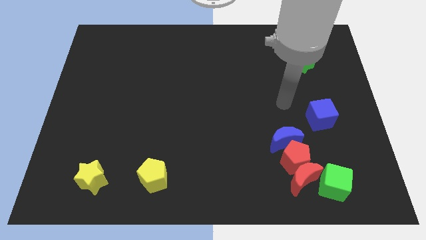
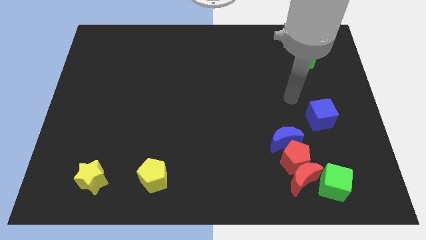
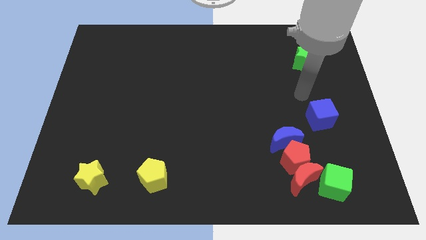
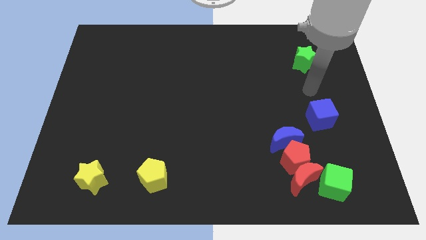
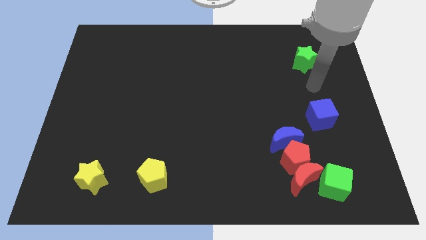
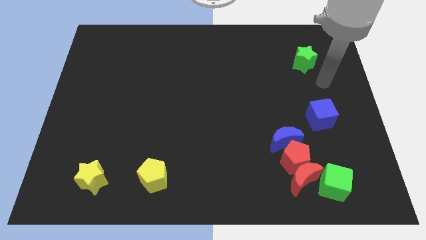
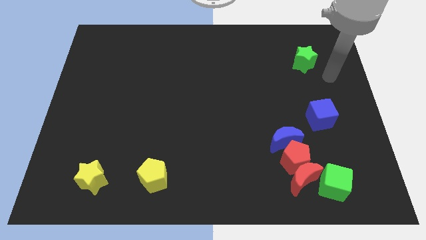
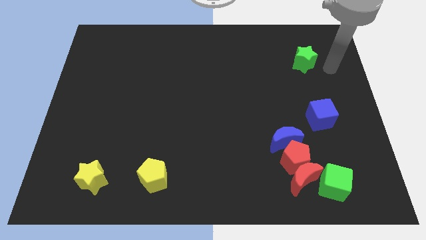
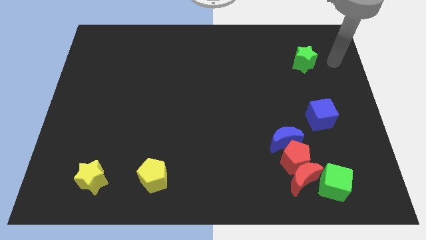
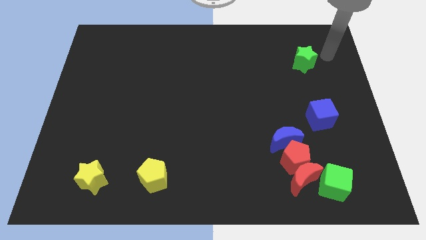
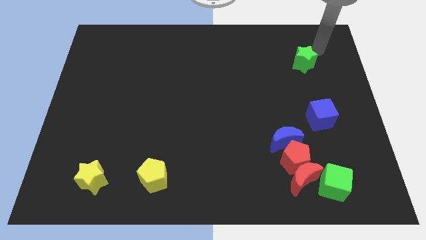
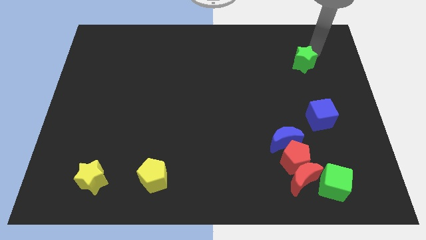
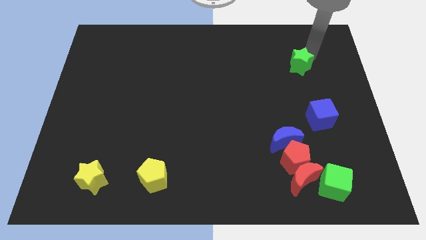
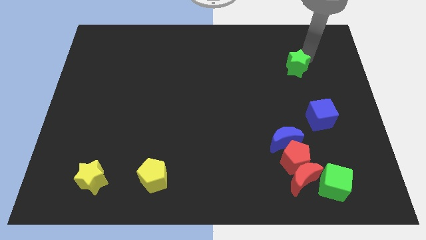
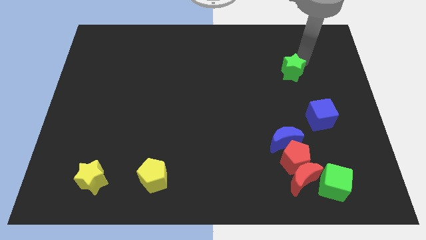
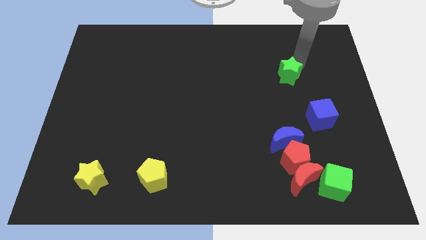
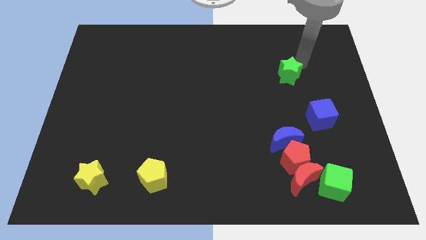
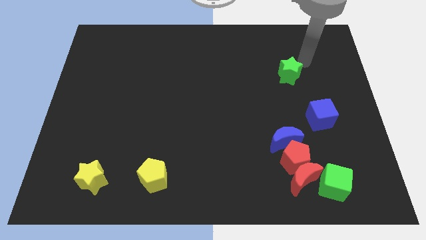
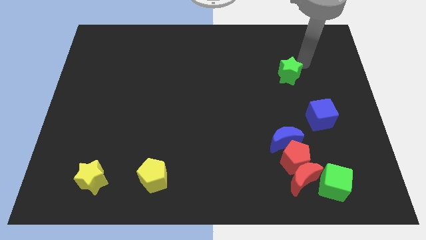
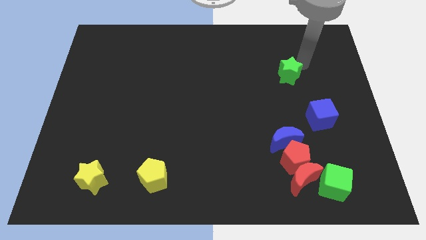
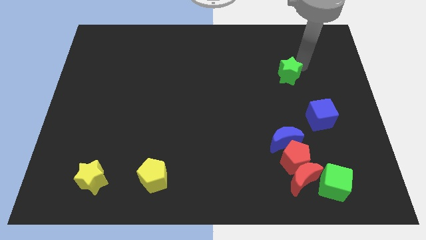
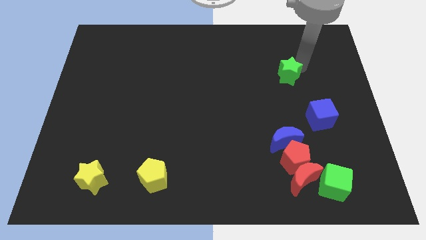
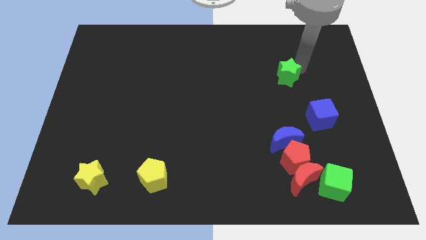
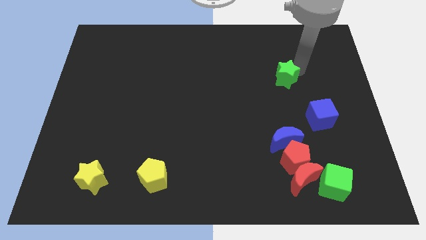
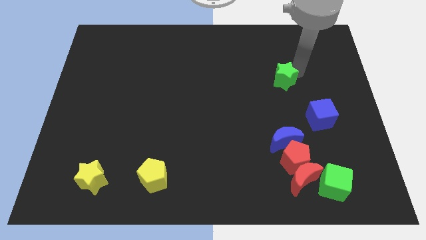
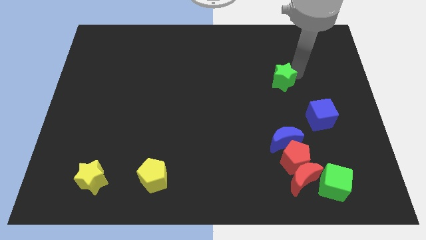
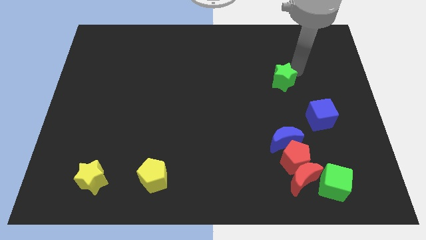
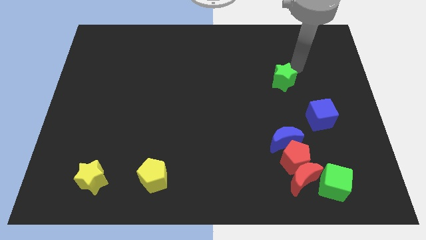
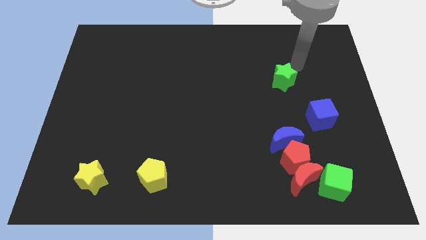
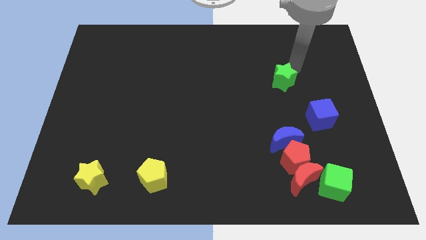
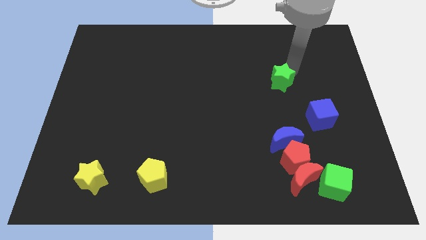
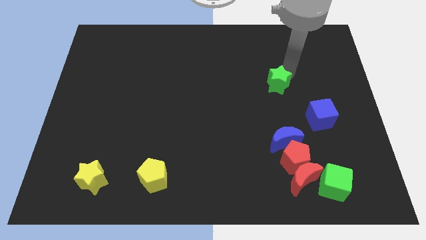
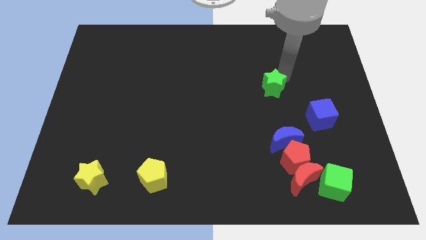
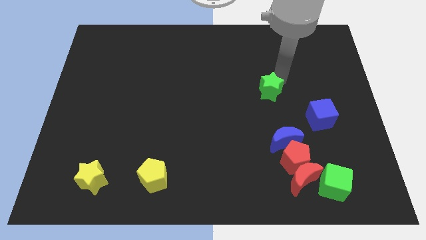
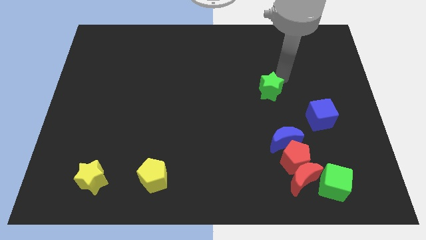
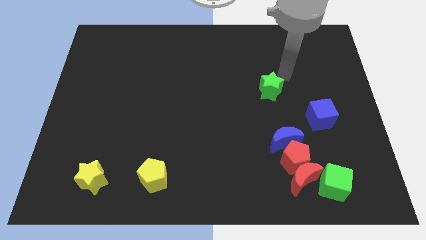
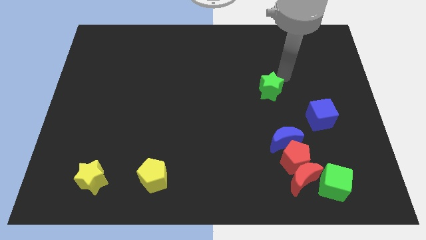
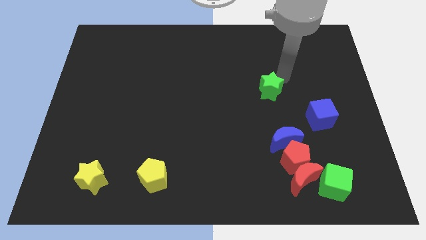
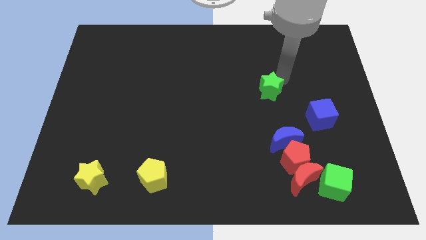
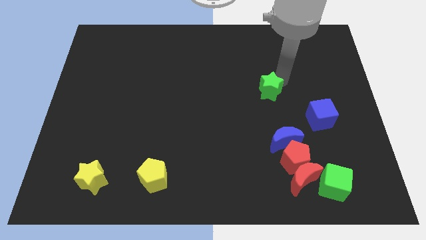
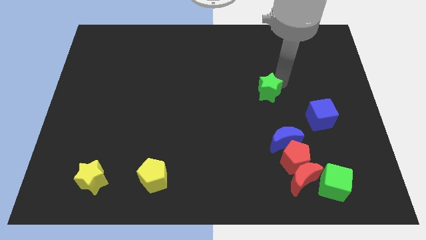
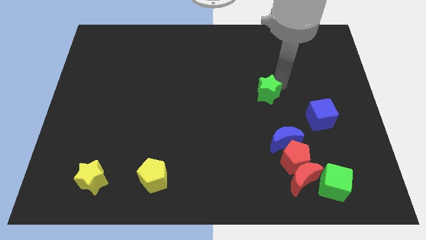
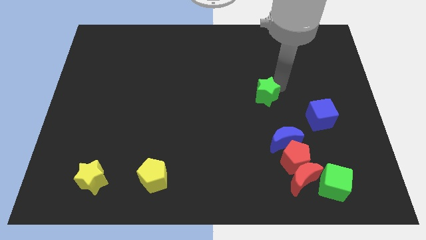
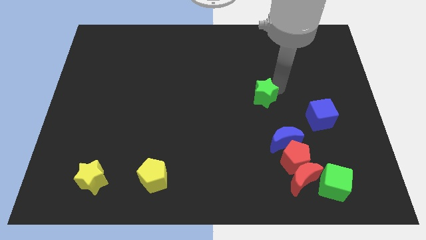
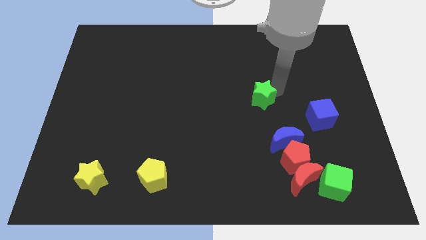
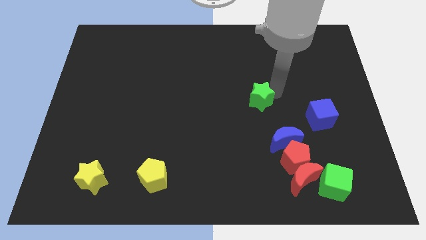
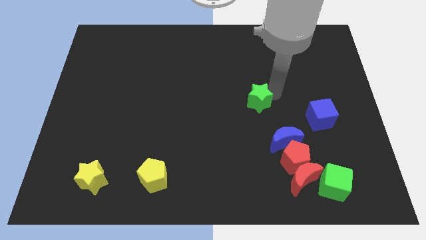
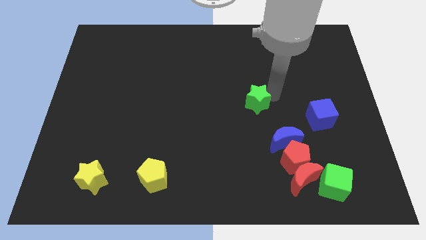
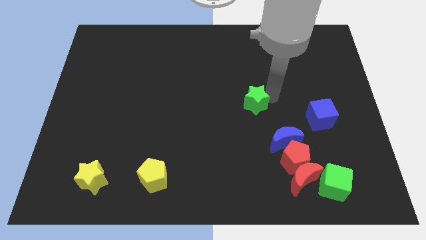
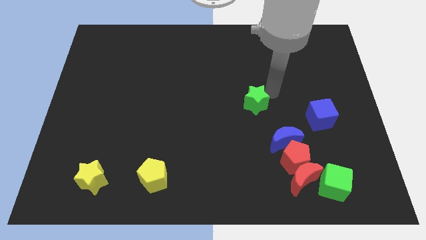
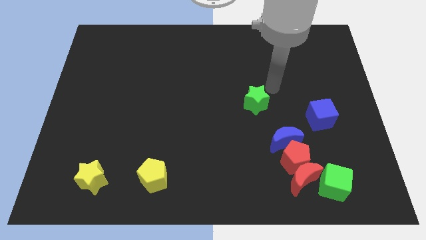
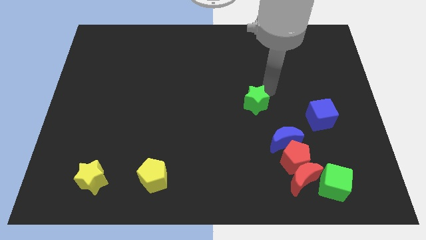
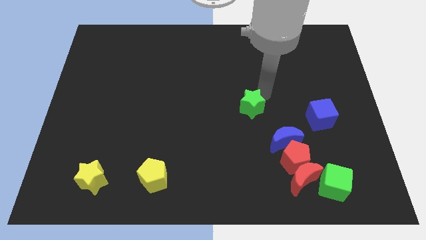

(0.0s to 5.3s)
move the green star diagonally downwards and to the left

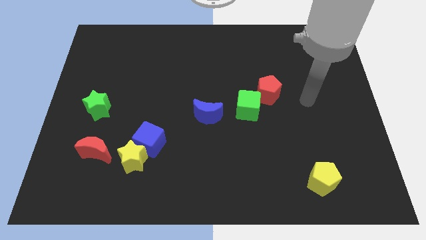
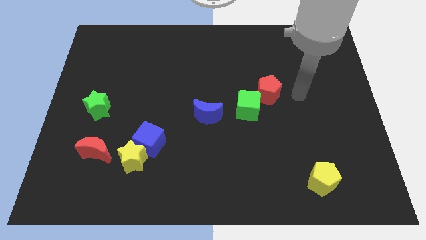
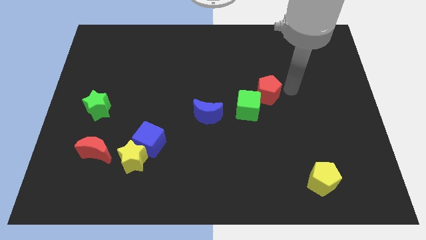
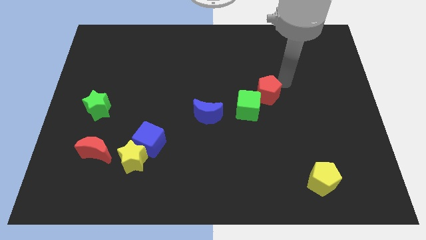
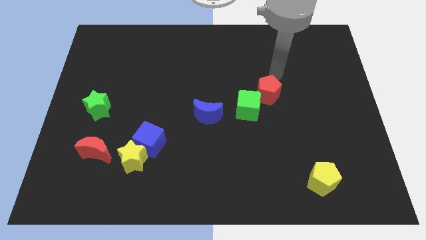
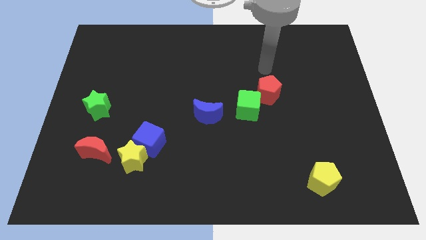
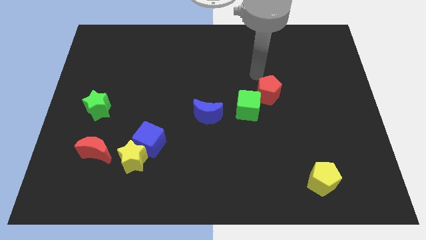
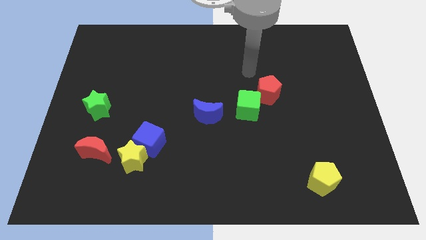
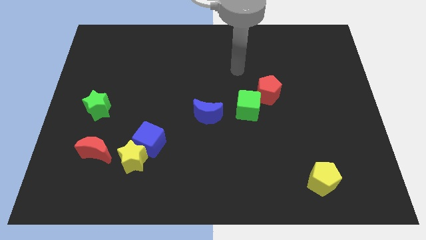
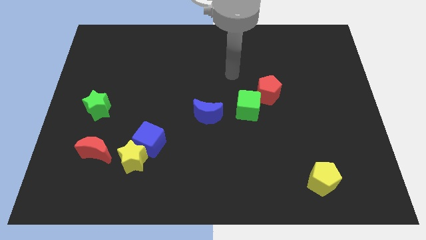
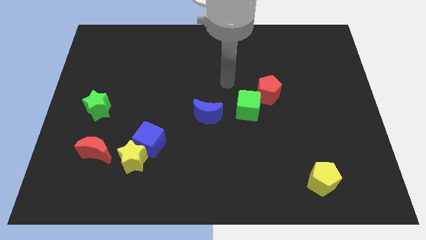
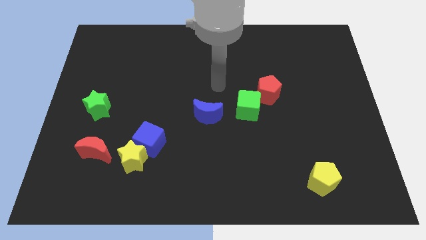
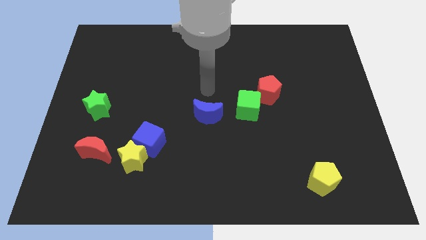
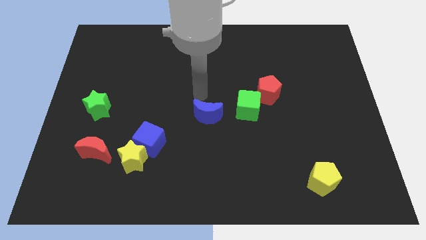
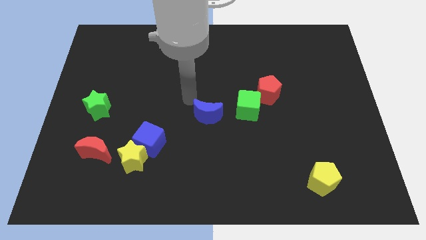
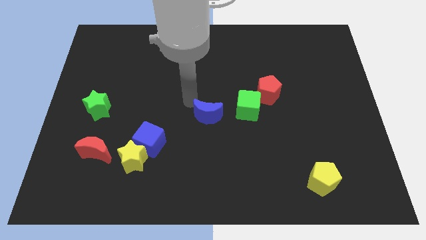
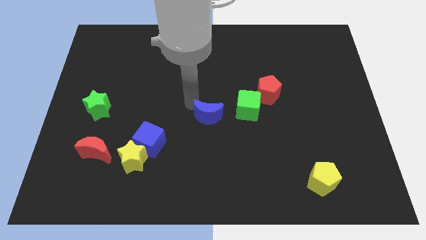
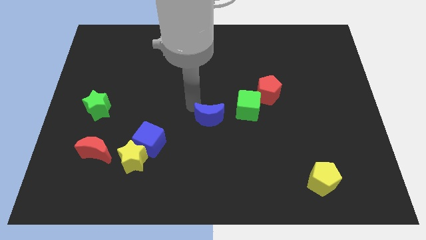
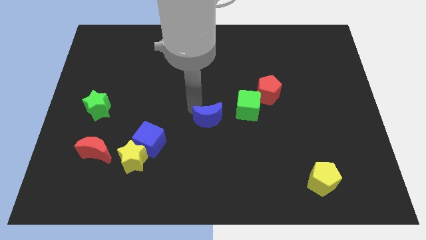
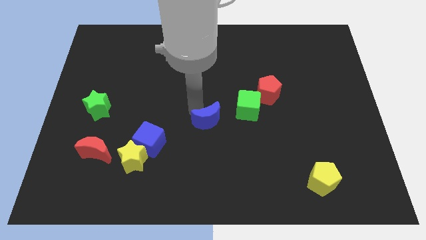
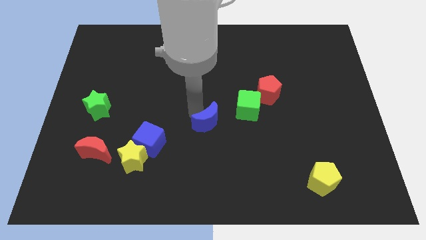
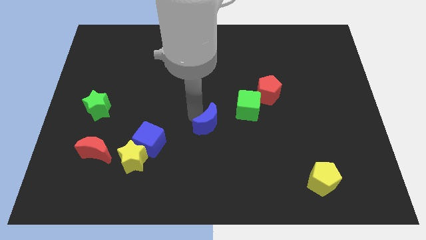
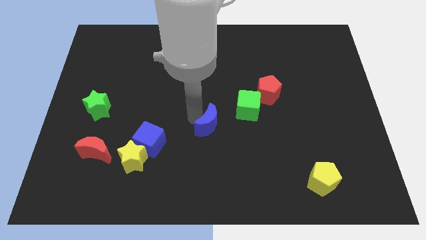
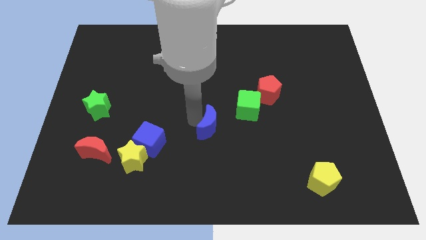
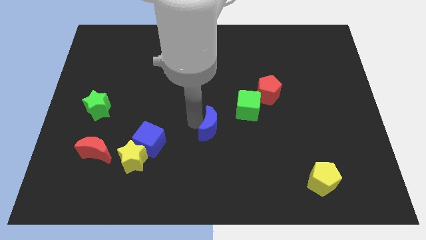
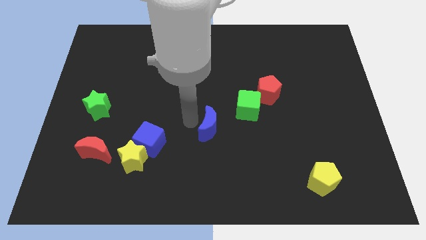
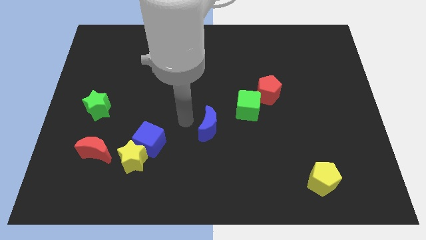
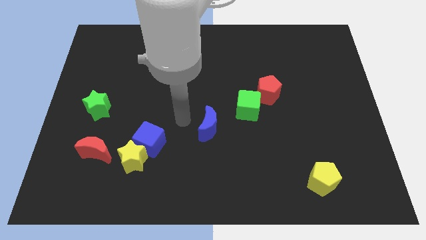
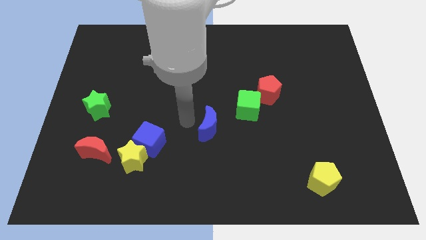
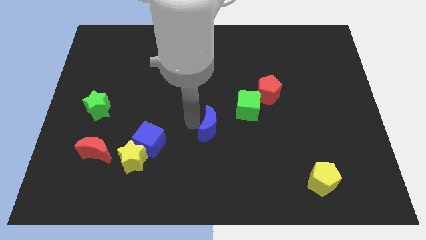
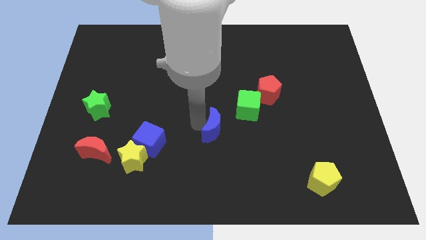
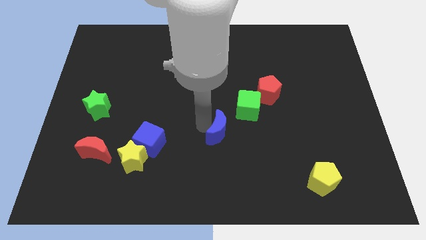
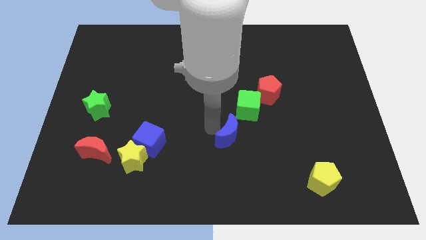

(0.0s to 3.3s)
slide the blue moon a little down and right
